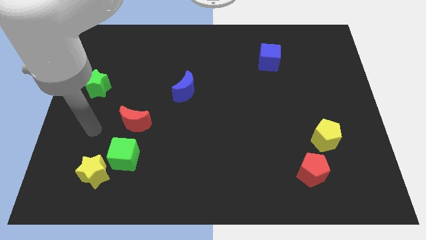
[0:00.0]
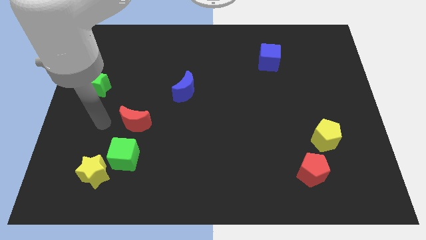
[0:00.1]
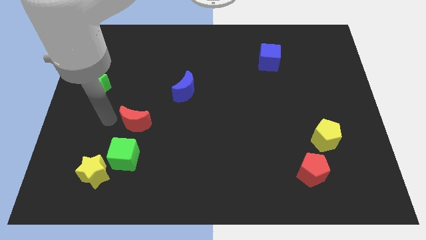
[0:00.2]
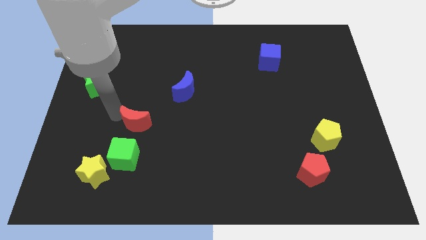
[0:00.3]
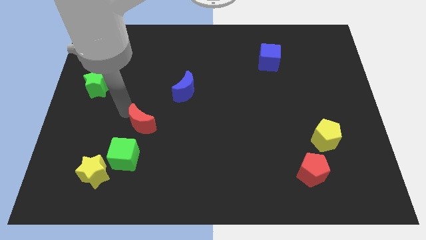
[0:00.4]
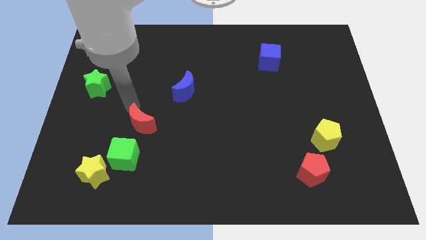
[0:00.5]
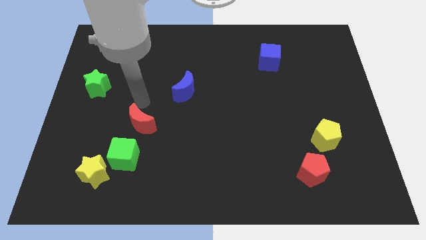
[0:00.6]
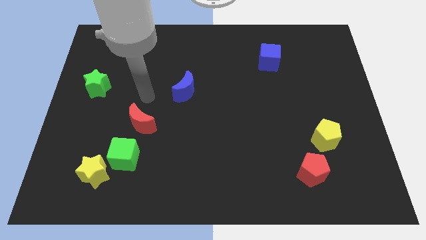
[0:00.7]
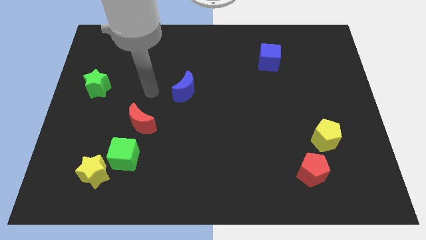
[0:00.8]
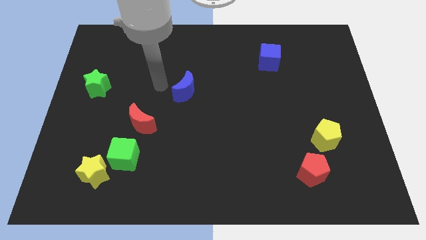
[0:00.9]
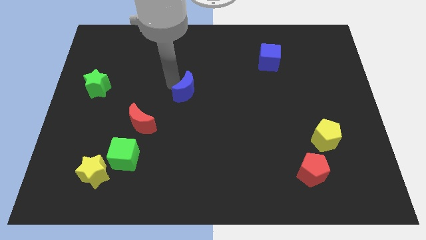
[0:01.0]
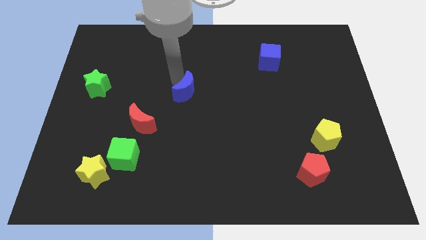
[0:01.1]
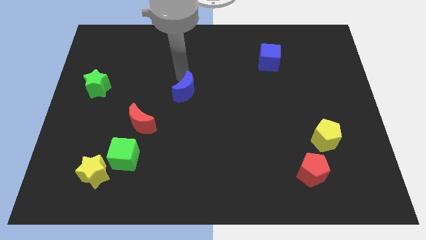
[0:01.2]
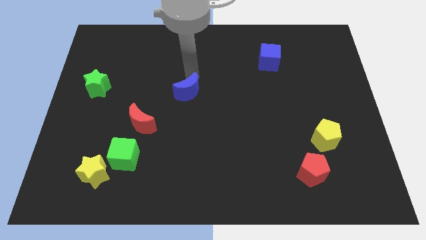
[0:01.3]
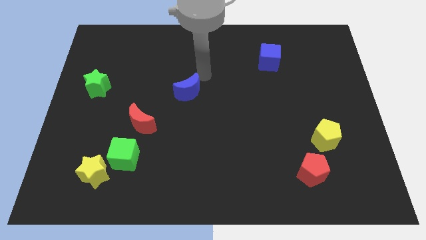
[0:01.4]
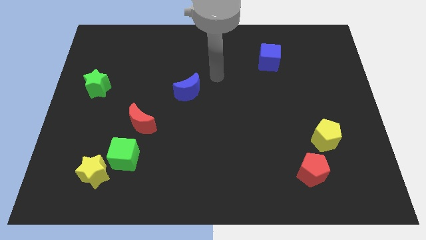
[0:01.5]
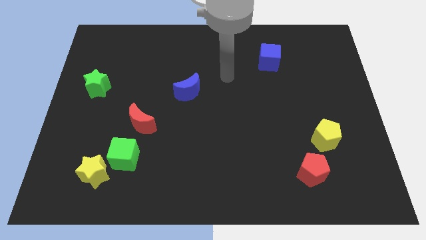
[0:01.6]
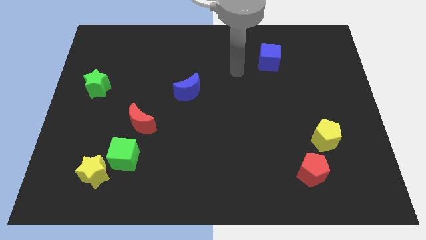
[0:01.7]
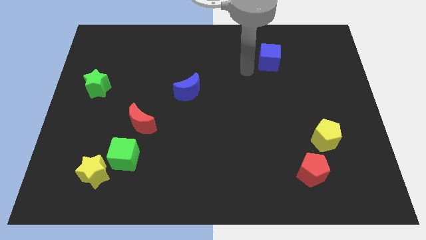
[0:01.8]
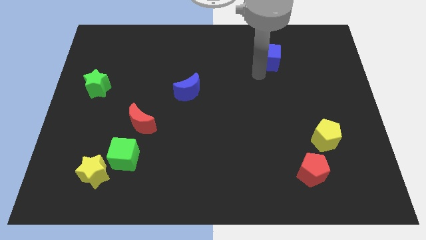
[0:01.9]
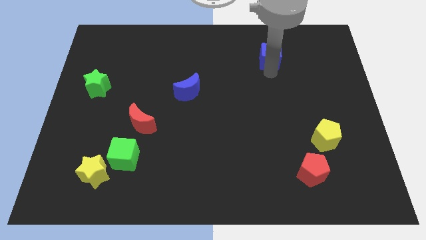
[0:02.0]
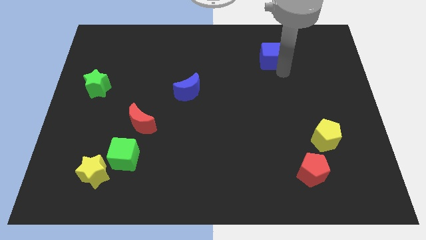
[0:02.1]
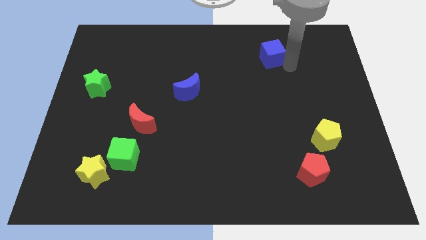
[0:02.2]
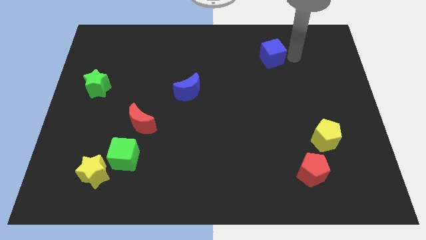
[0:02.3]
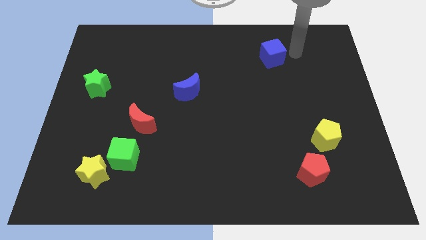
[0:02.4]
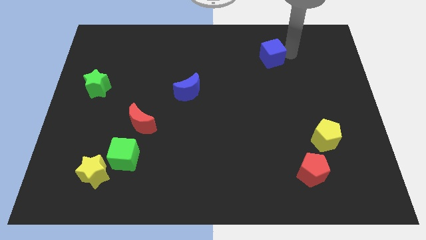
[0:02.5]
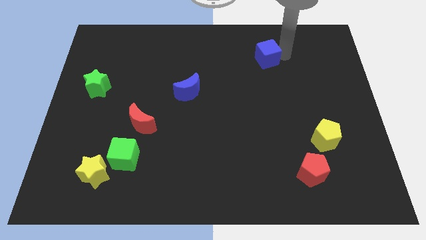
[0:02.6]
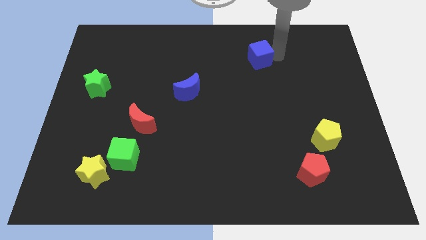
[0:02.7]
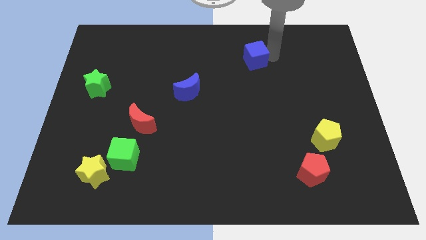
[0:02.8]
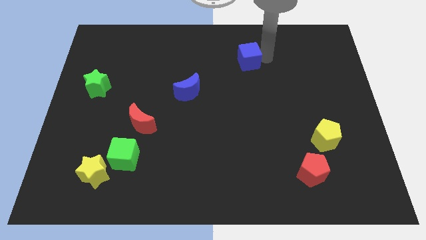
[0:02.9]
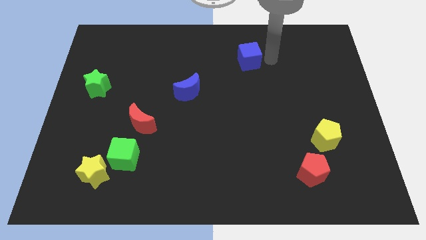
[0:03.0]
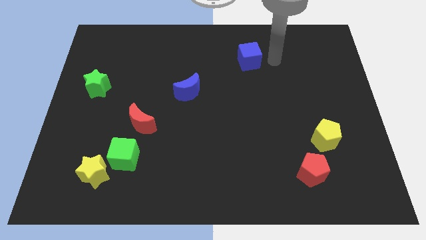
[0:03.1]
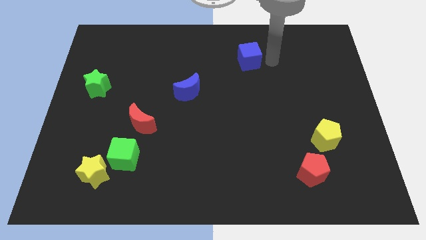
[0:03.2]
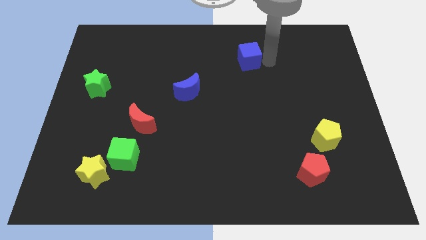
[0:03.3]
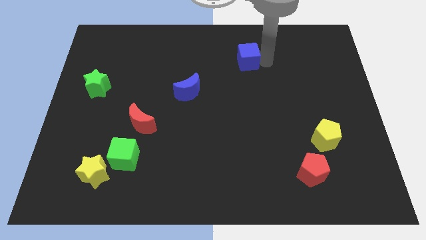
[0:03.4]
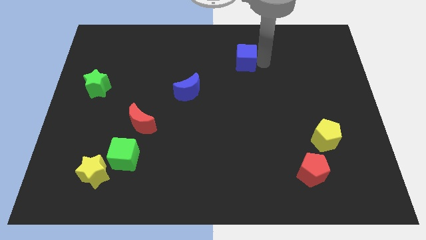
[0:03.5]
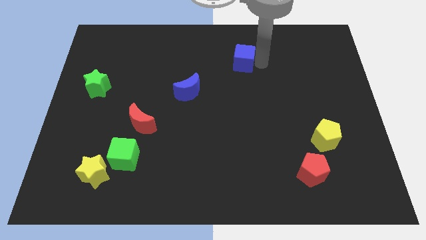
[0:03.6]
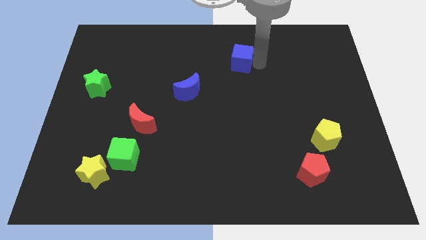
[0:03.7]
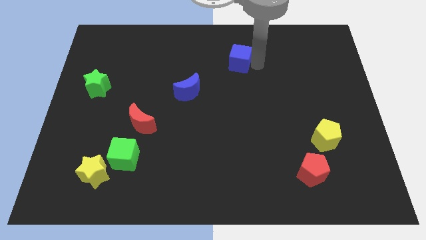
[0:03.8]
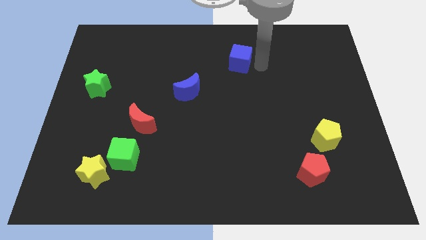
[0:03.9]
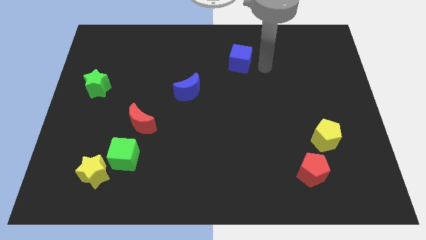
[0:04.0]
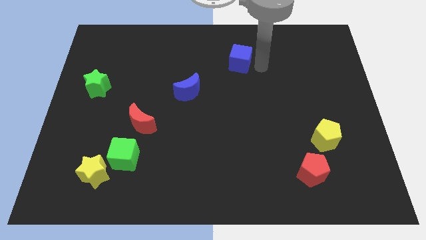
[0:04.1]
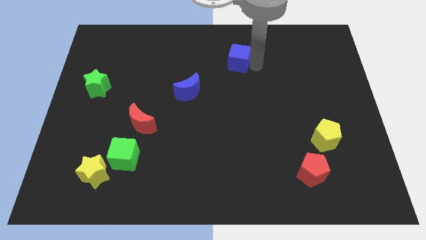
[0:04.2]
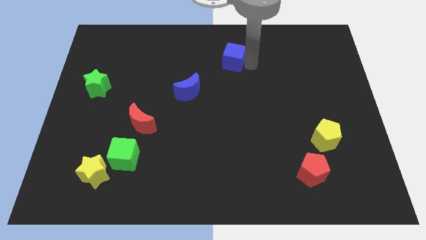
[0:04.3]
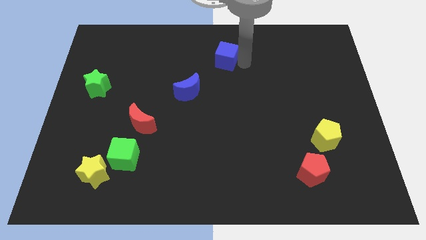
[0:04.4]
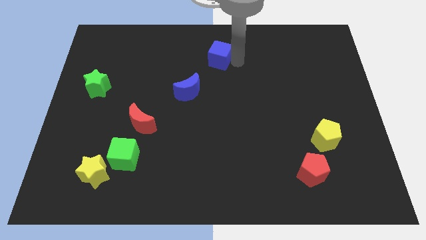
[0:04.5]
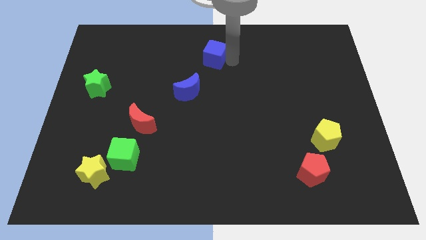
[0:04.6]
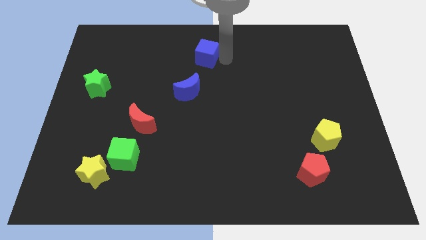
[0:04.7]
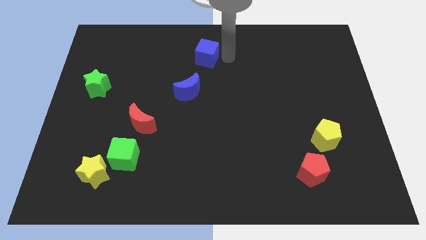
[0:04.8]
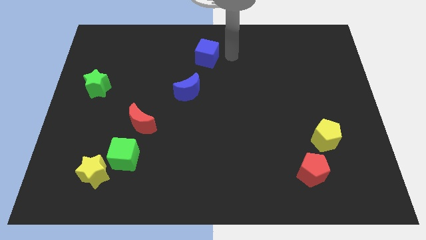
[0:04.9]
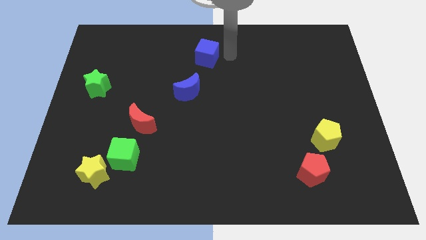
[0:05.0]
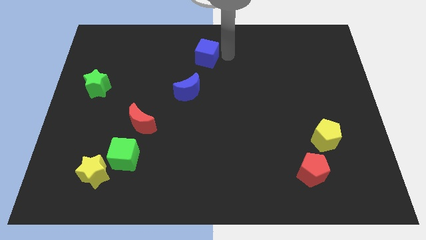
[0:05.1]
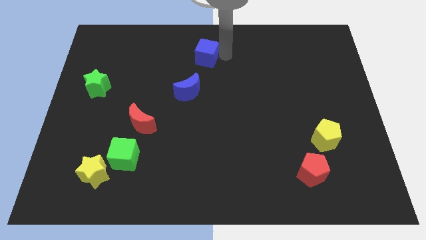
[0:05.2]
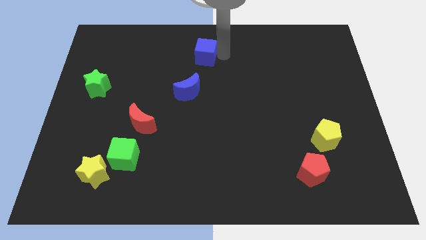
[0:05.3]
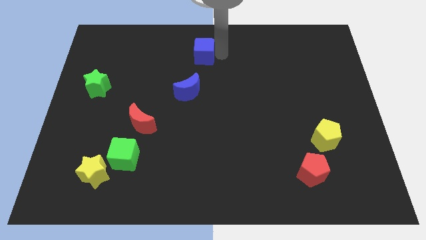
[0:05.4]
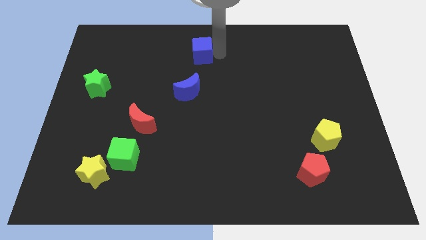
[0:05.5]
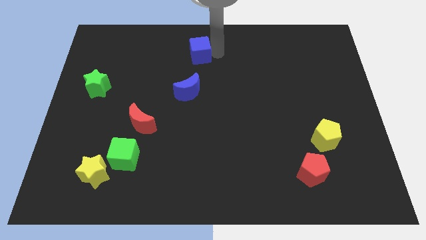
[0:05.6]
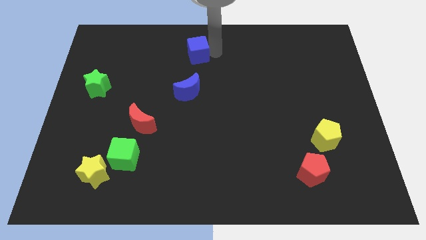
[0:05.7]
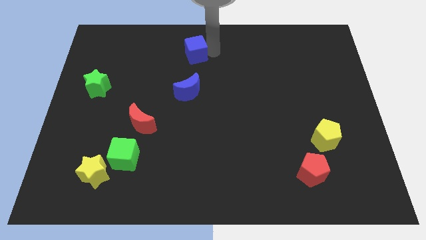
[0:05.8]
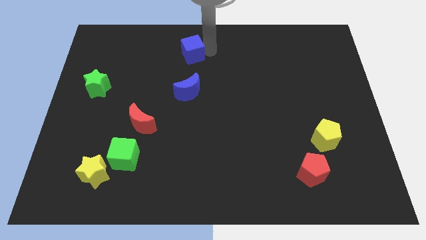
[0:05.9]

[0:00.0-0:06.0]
move the blue cube to the left

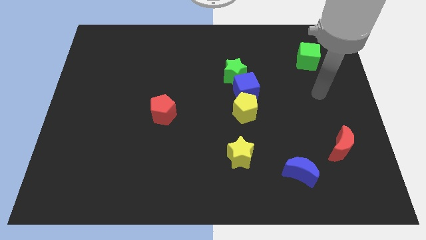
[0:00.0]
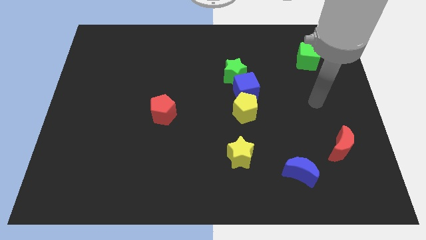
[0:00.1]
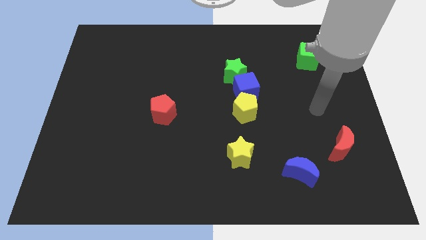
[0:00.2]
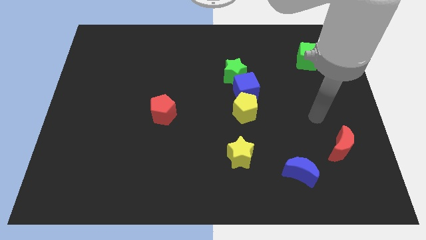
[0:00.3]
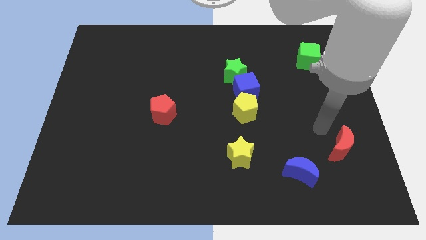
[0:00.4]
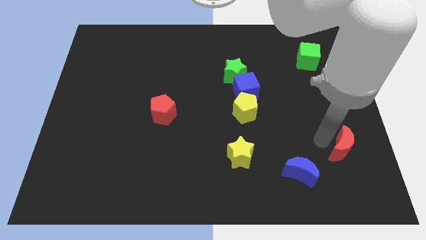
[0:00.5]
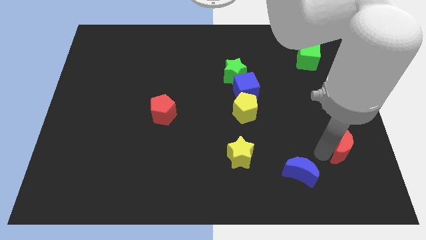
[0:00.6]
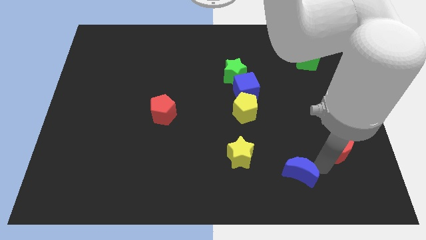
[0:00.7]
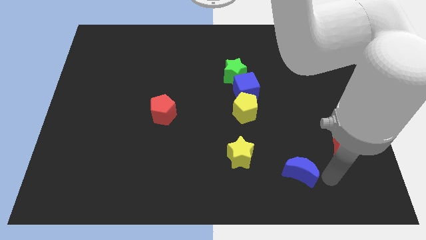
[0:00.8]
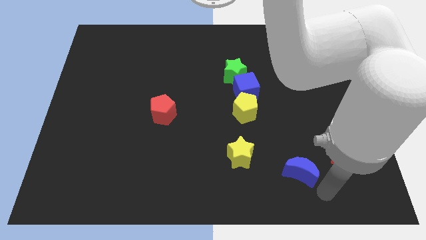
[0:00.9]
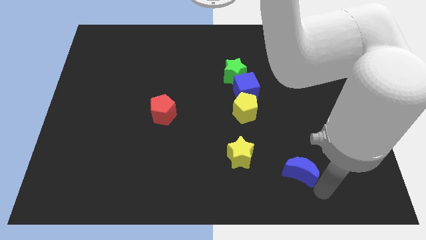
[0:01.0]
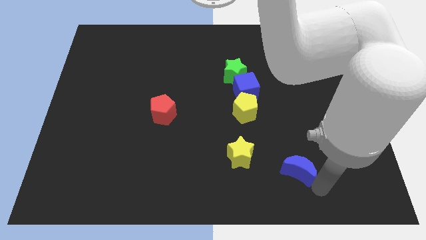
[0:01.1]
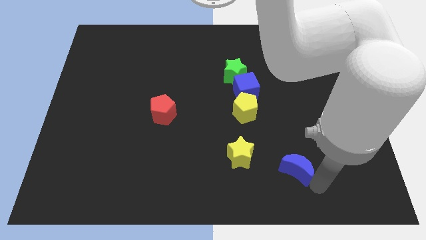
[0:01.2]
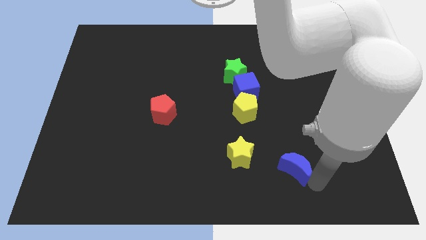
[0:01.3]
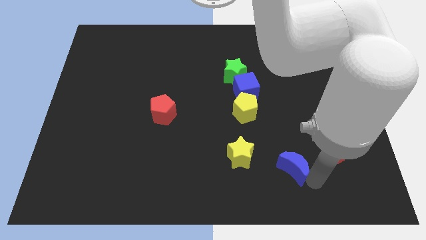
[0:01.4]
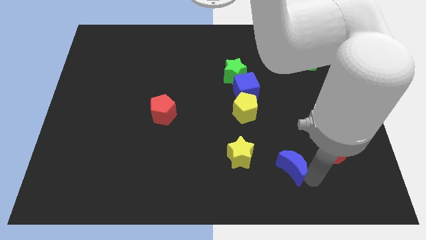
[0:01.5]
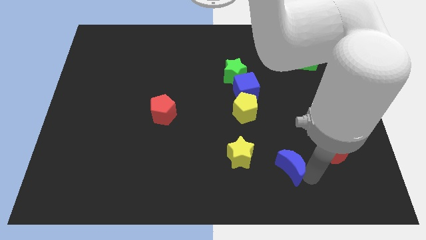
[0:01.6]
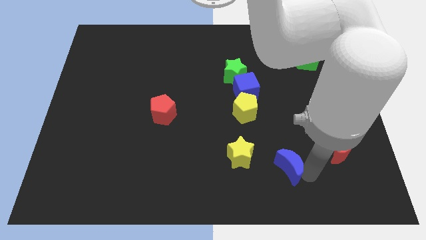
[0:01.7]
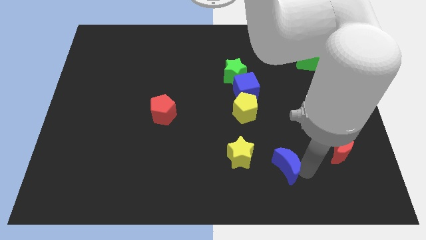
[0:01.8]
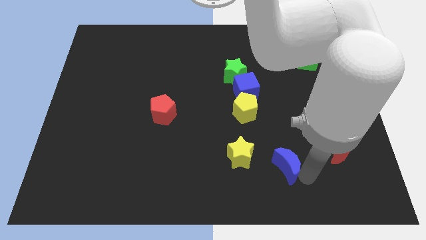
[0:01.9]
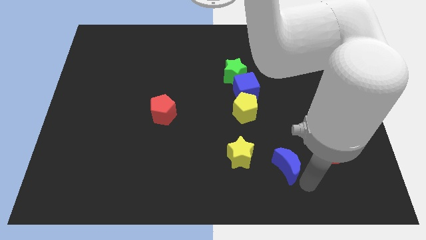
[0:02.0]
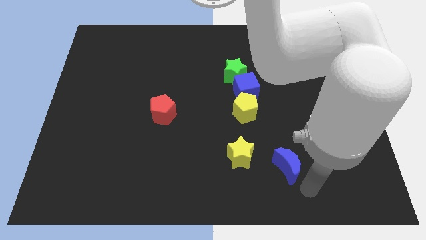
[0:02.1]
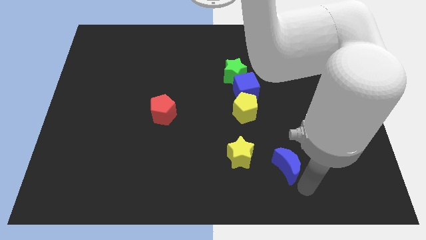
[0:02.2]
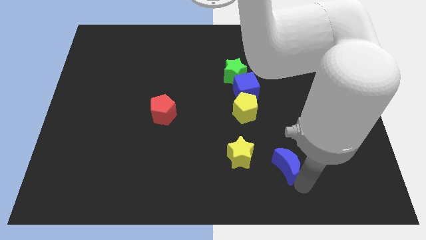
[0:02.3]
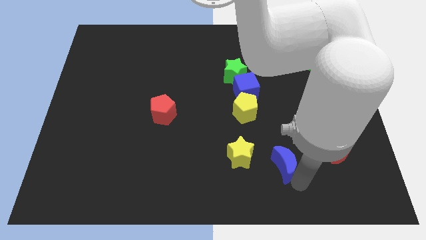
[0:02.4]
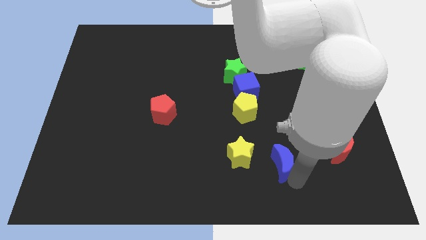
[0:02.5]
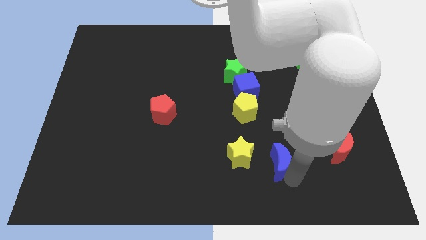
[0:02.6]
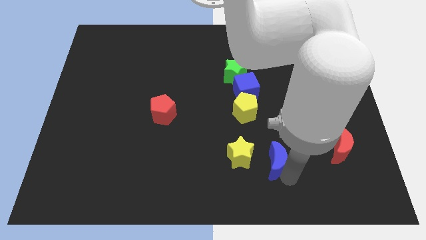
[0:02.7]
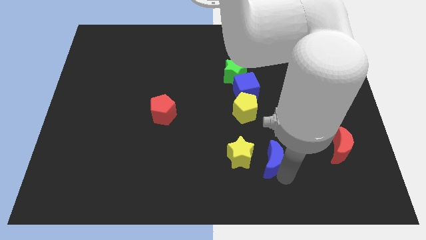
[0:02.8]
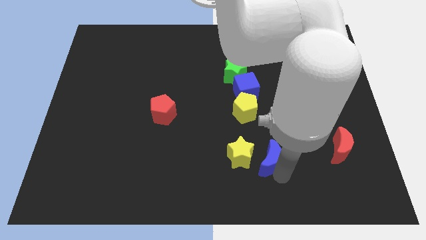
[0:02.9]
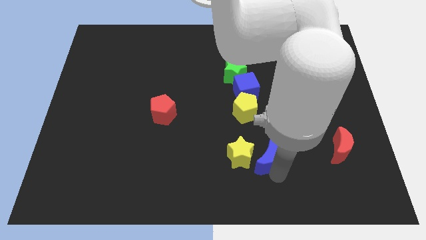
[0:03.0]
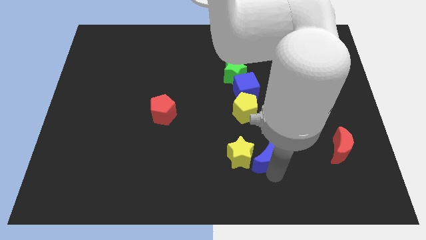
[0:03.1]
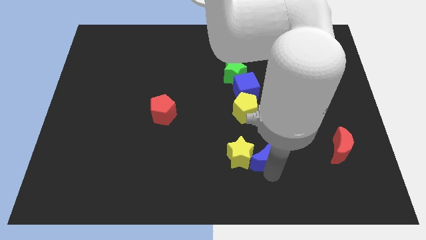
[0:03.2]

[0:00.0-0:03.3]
slide the blue moon somewhat up and left diagonally
